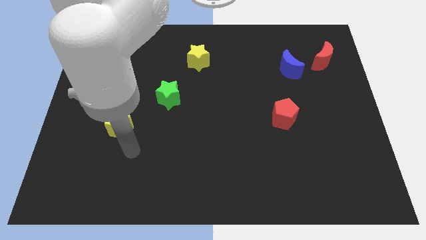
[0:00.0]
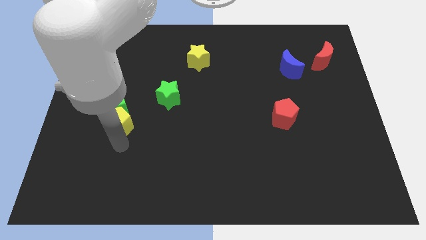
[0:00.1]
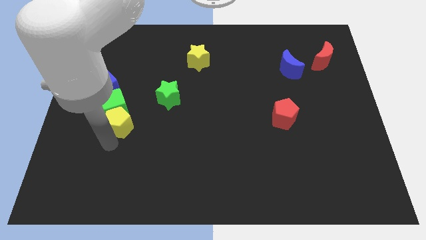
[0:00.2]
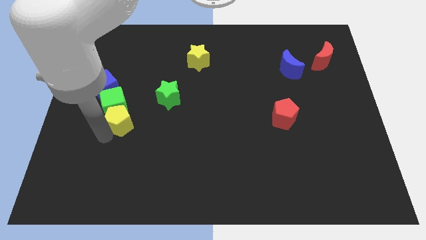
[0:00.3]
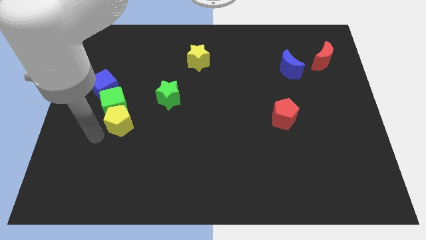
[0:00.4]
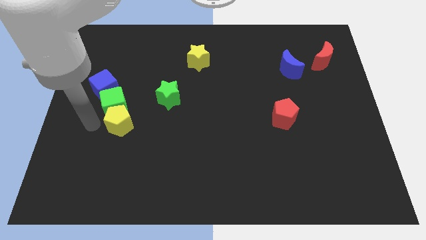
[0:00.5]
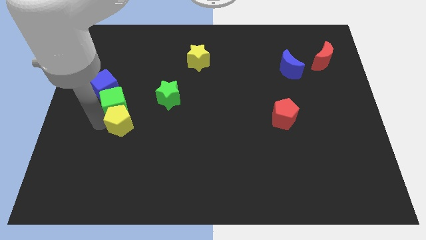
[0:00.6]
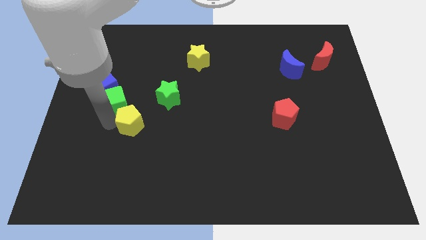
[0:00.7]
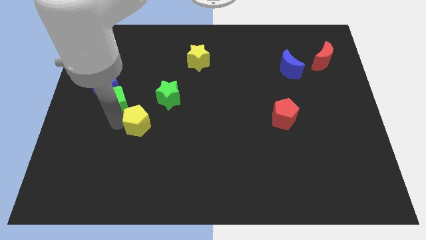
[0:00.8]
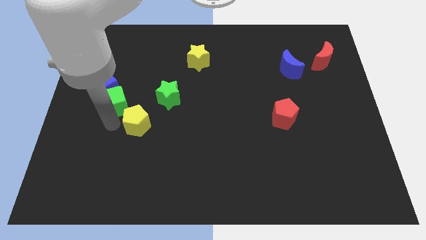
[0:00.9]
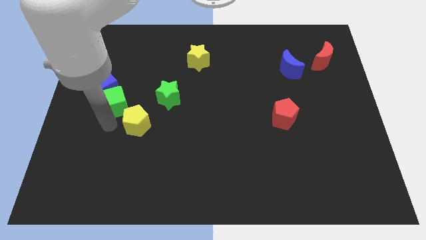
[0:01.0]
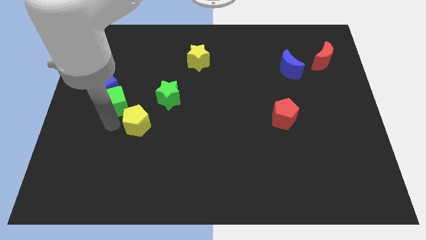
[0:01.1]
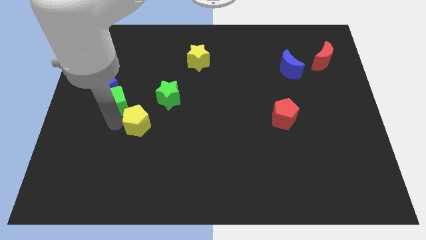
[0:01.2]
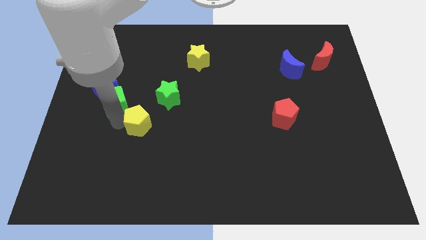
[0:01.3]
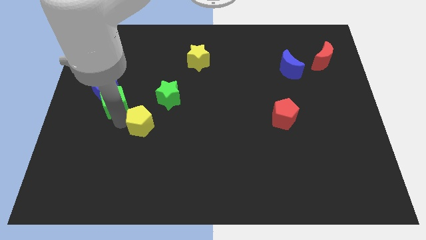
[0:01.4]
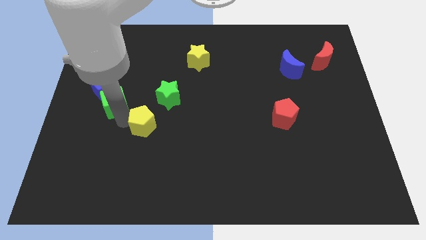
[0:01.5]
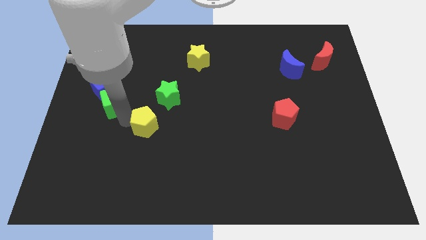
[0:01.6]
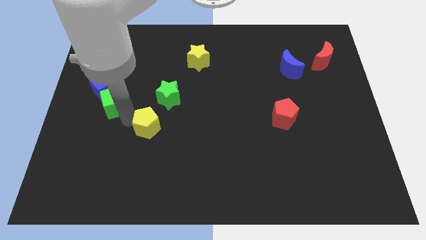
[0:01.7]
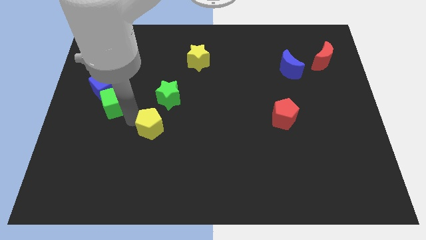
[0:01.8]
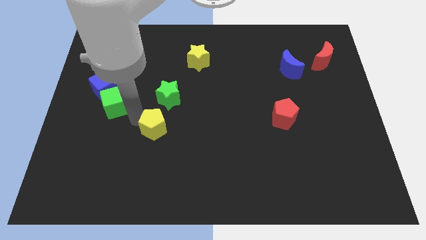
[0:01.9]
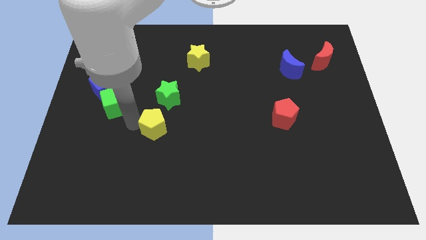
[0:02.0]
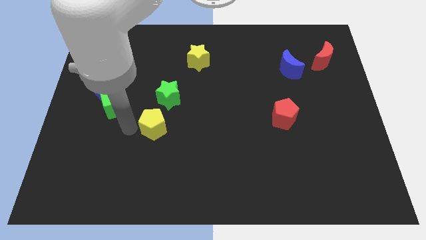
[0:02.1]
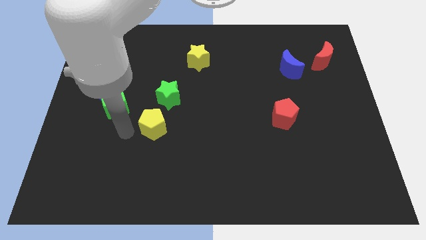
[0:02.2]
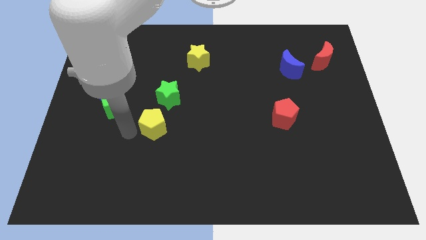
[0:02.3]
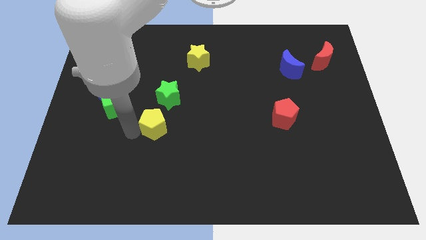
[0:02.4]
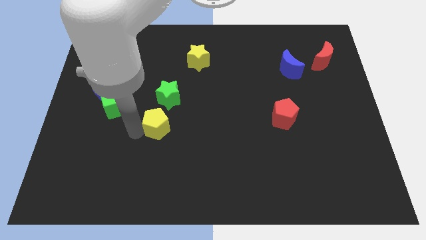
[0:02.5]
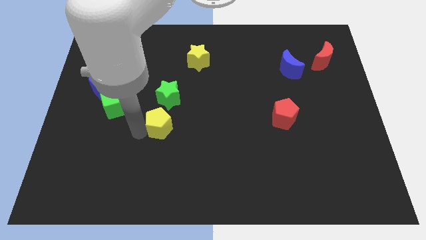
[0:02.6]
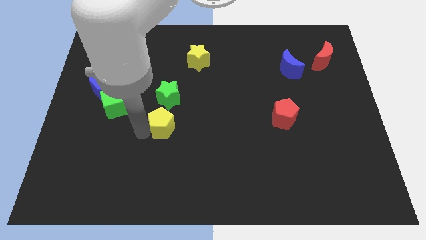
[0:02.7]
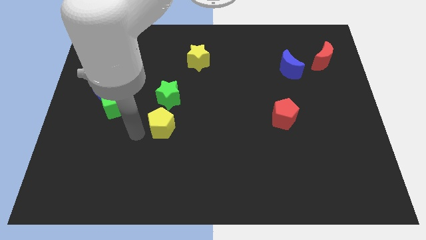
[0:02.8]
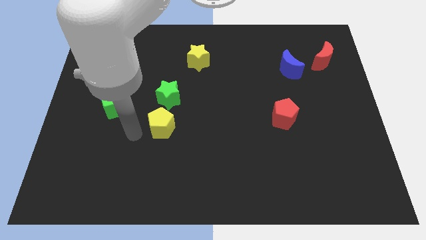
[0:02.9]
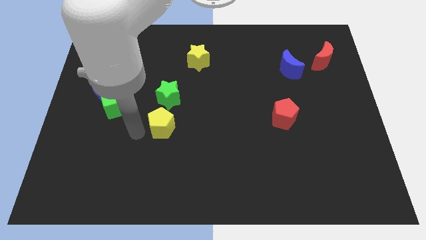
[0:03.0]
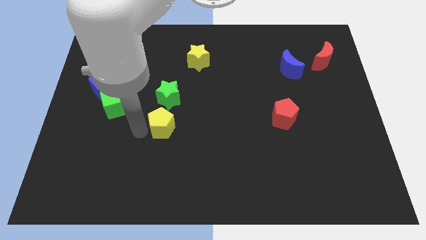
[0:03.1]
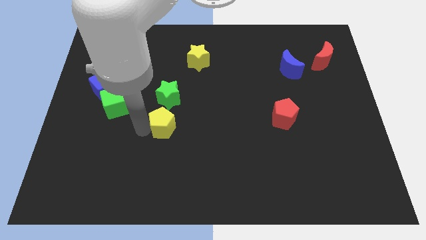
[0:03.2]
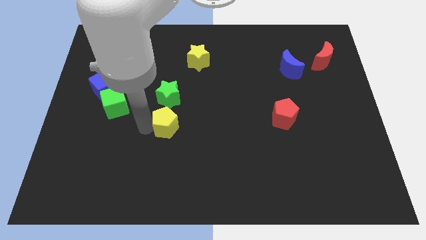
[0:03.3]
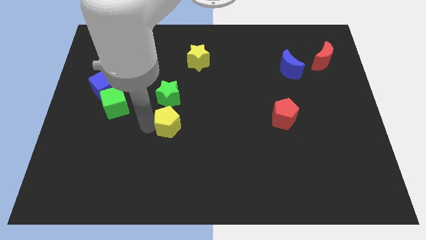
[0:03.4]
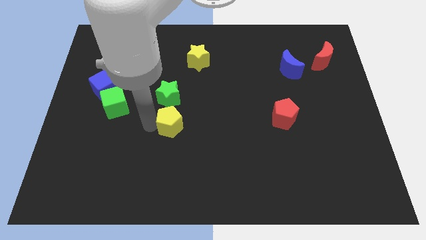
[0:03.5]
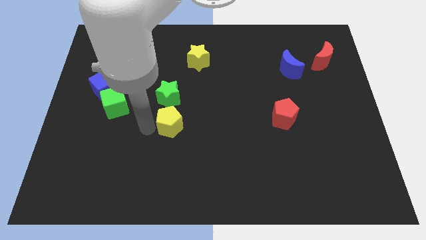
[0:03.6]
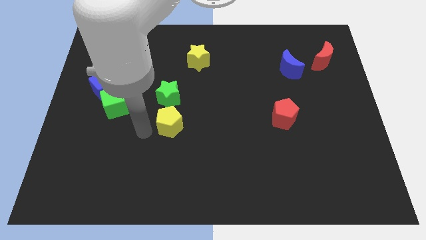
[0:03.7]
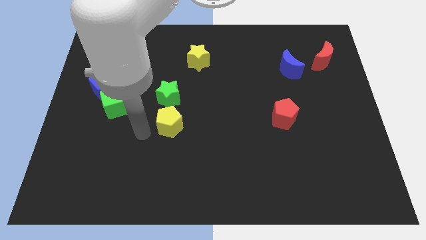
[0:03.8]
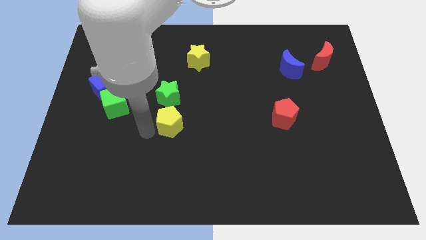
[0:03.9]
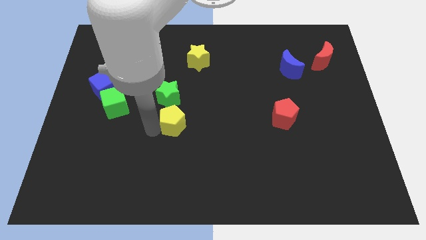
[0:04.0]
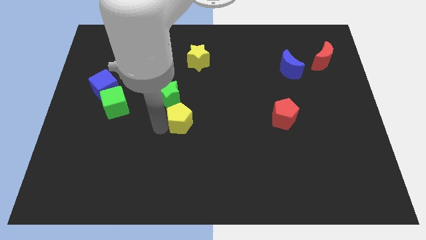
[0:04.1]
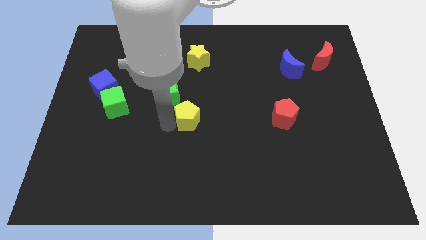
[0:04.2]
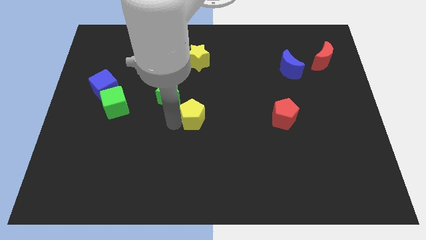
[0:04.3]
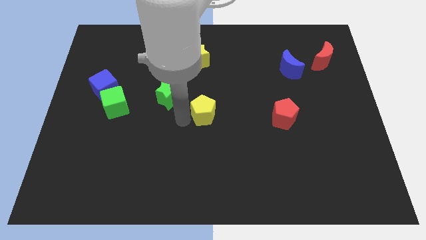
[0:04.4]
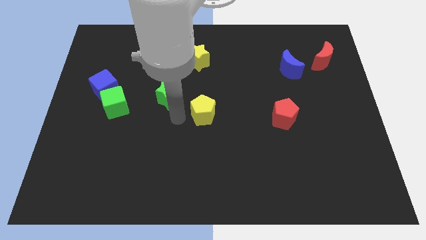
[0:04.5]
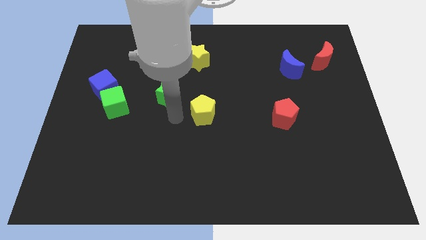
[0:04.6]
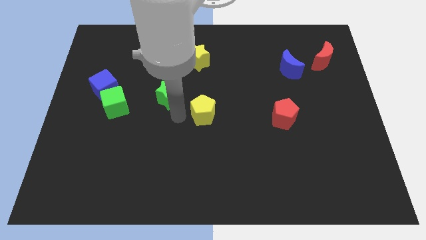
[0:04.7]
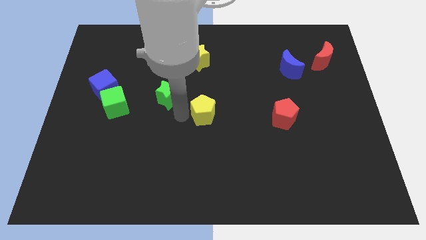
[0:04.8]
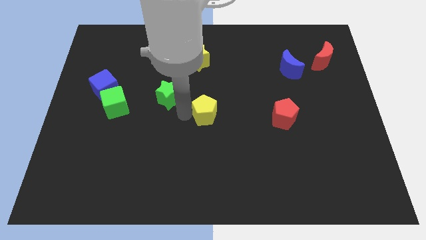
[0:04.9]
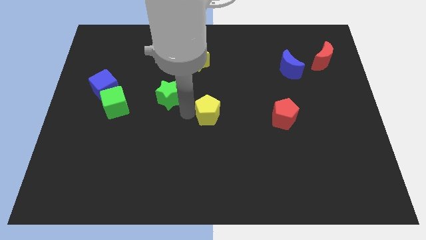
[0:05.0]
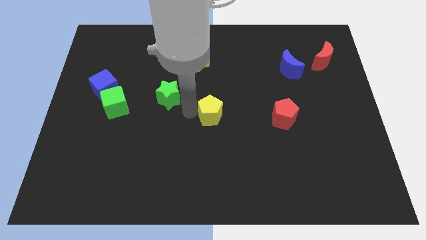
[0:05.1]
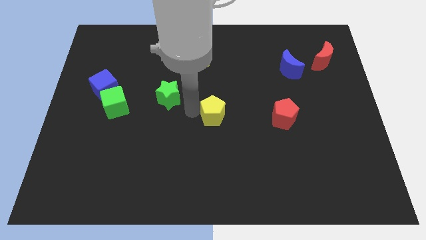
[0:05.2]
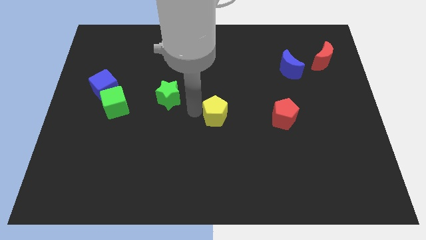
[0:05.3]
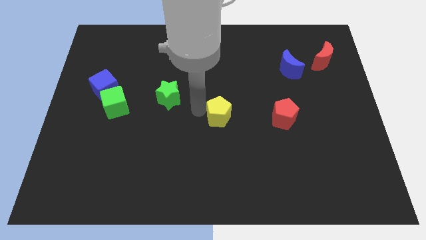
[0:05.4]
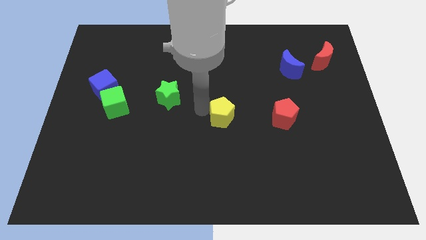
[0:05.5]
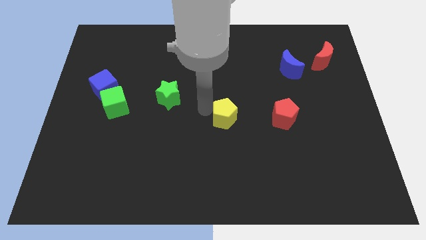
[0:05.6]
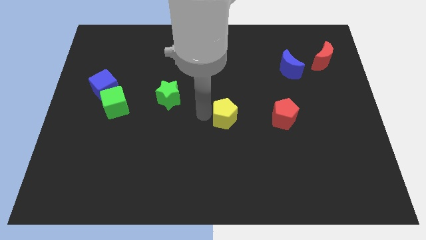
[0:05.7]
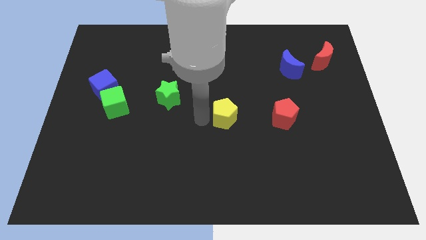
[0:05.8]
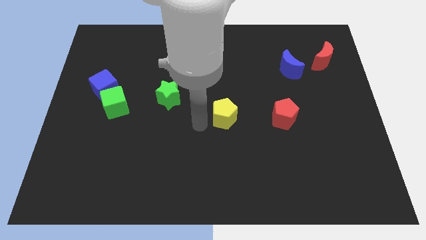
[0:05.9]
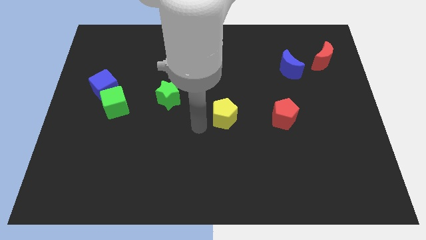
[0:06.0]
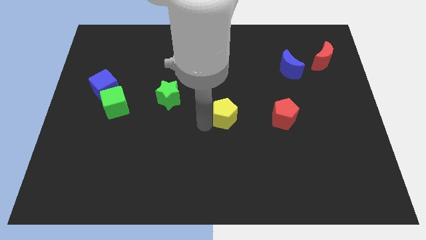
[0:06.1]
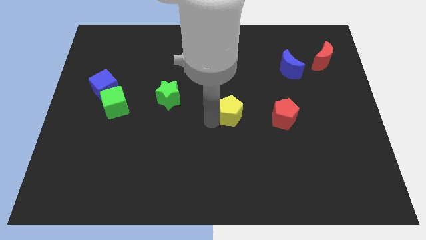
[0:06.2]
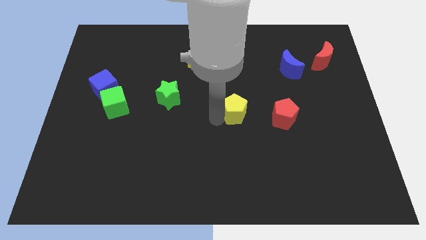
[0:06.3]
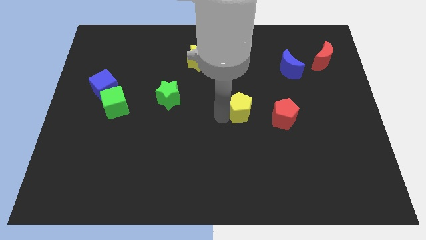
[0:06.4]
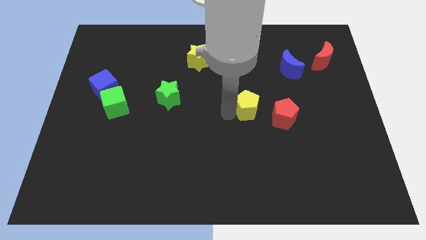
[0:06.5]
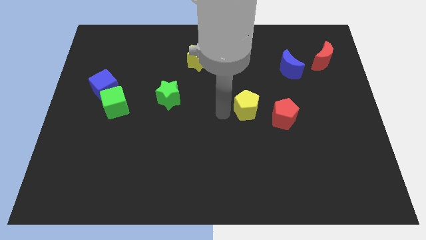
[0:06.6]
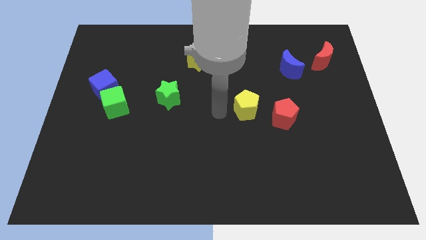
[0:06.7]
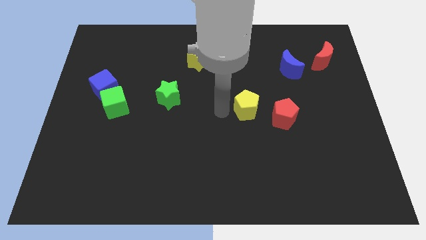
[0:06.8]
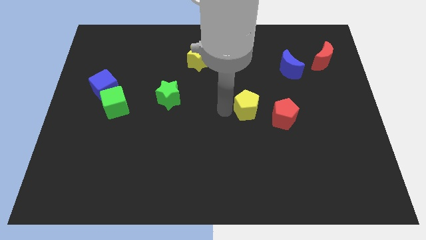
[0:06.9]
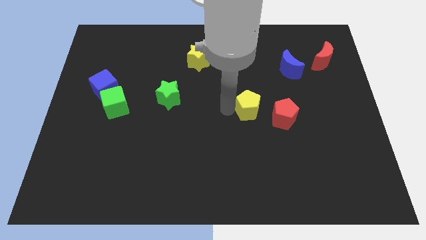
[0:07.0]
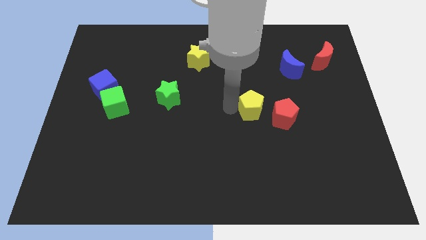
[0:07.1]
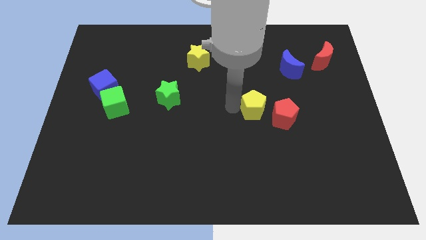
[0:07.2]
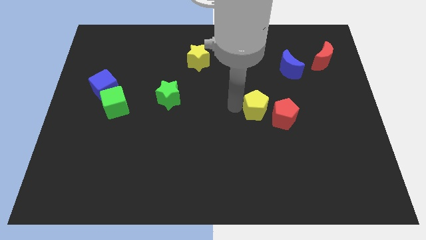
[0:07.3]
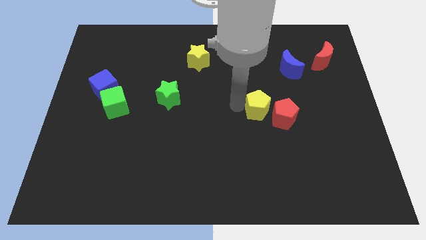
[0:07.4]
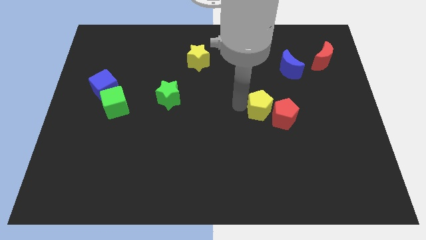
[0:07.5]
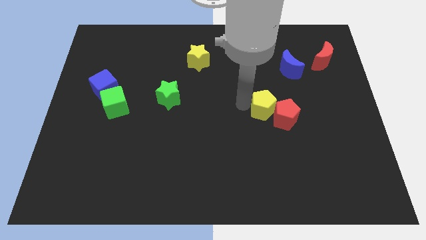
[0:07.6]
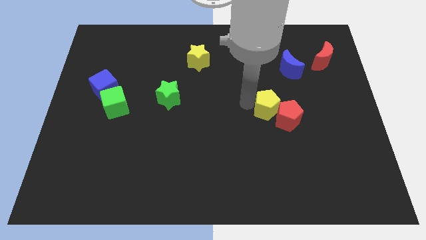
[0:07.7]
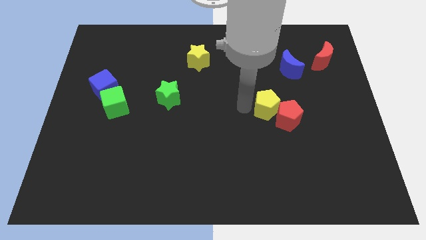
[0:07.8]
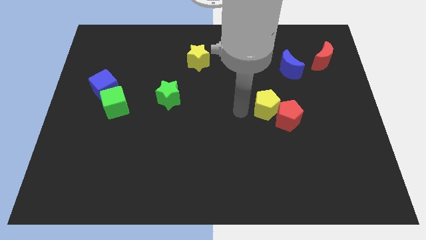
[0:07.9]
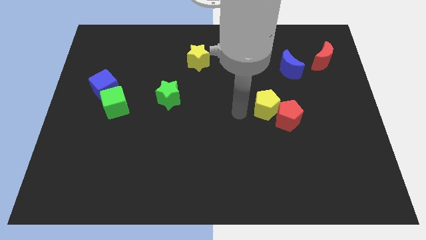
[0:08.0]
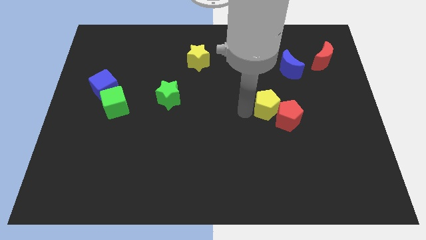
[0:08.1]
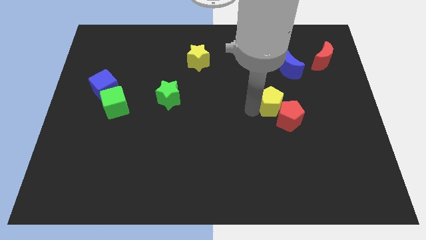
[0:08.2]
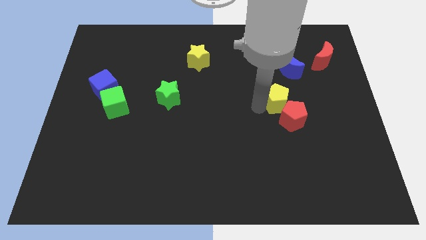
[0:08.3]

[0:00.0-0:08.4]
put the yellow pentagon to the bottom of the blue moon
